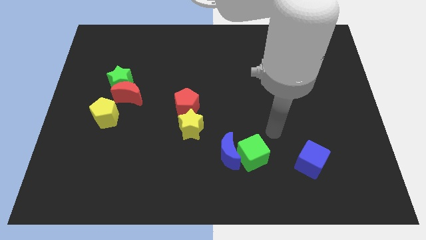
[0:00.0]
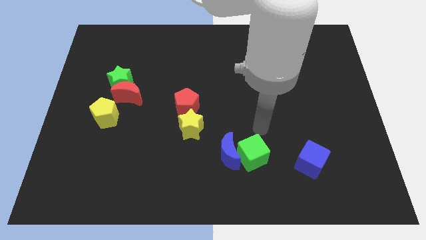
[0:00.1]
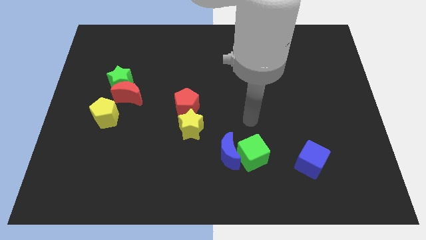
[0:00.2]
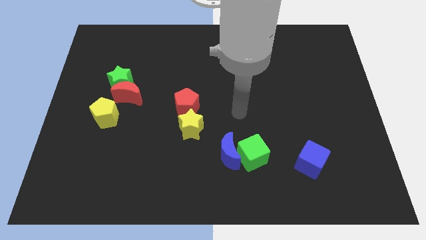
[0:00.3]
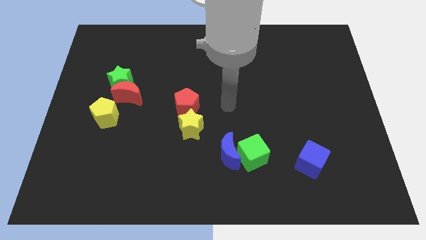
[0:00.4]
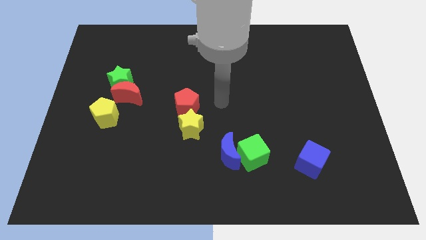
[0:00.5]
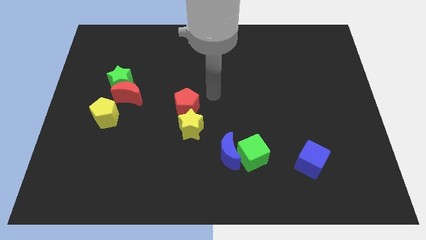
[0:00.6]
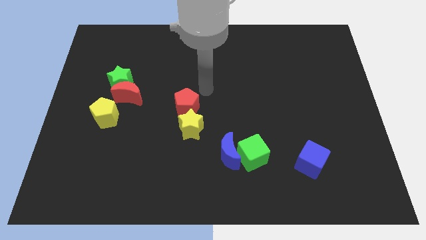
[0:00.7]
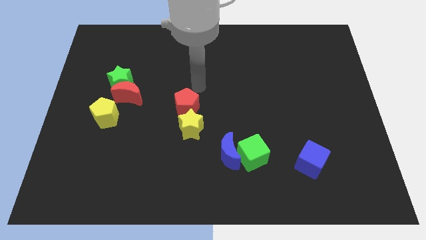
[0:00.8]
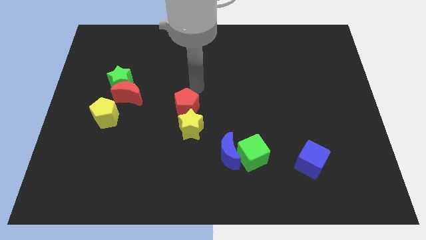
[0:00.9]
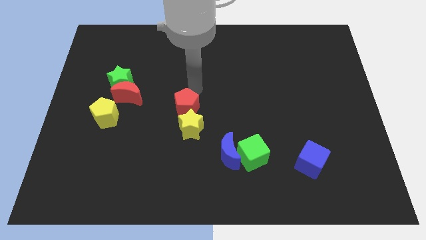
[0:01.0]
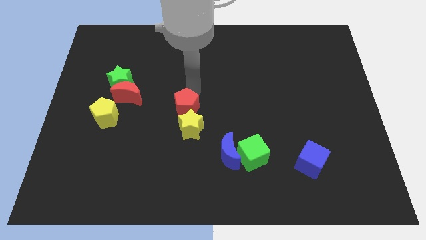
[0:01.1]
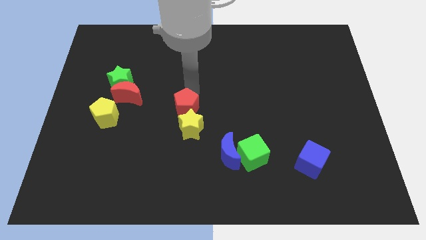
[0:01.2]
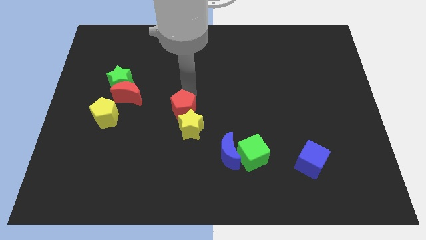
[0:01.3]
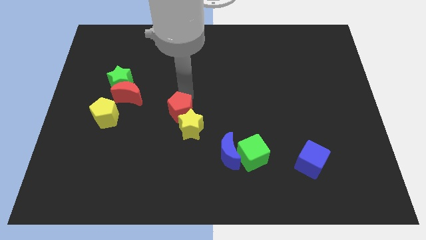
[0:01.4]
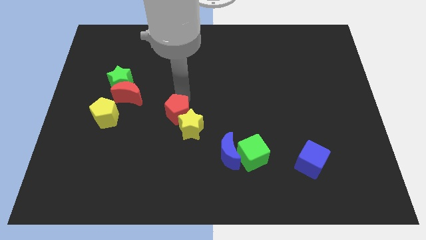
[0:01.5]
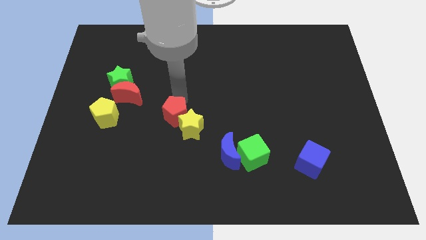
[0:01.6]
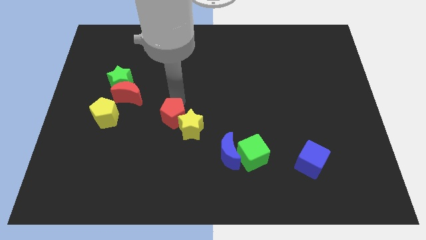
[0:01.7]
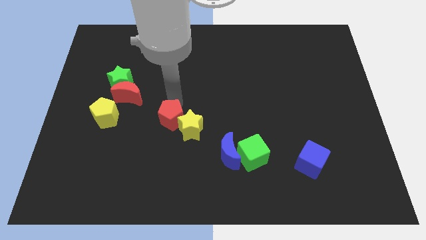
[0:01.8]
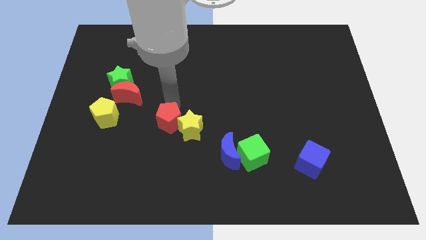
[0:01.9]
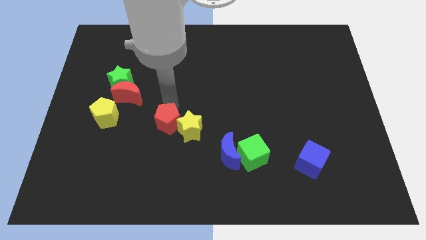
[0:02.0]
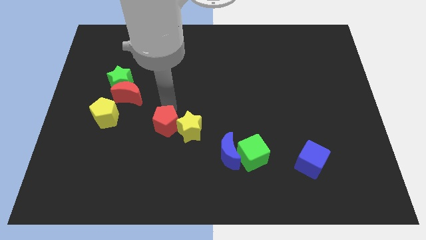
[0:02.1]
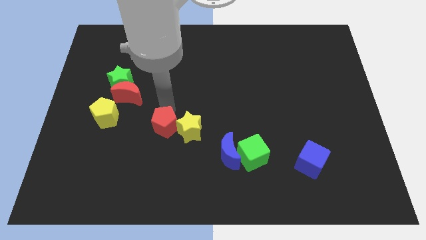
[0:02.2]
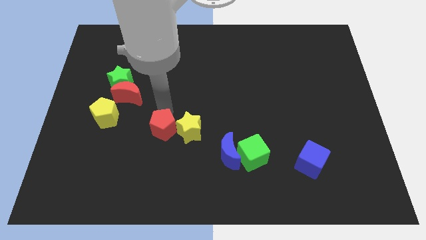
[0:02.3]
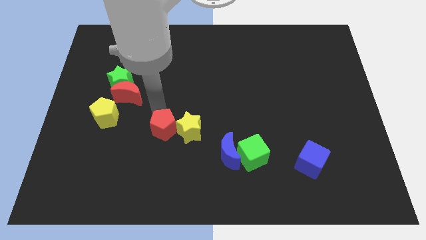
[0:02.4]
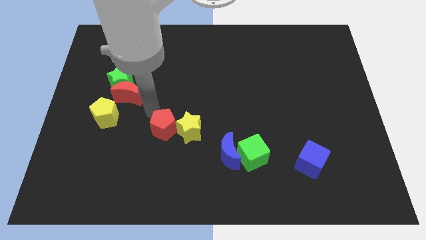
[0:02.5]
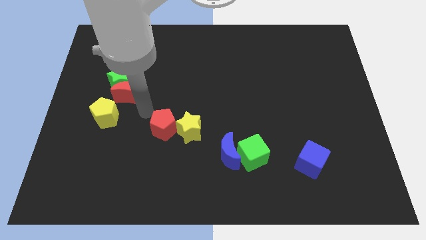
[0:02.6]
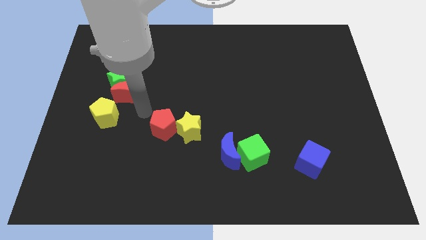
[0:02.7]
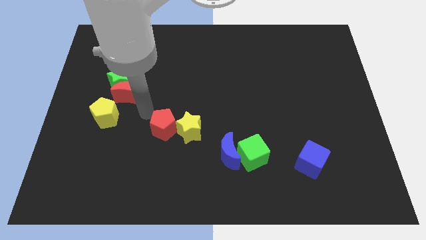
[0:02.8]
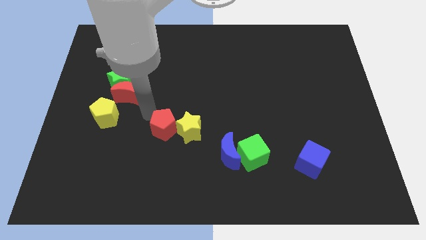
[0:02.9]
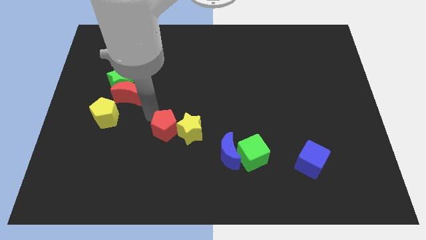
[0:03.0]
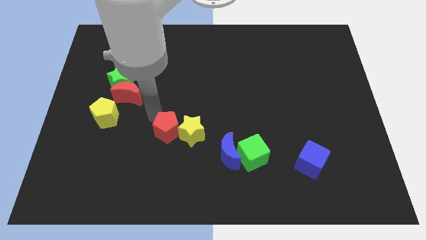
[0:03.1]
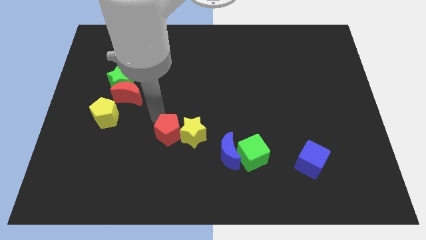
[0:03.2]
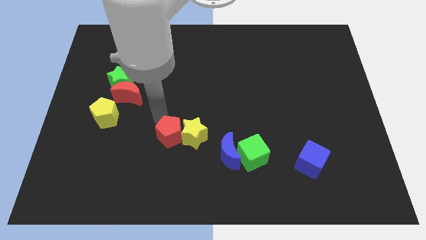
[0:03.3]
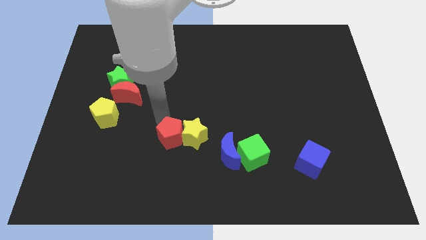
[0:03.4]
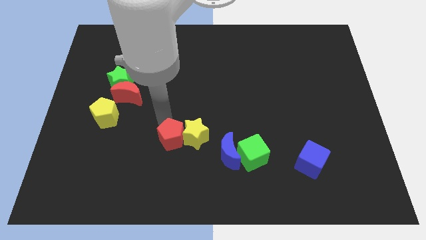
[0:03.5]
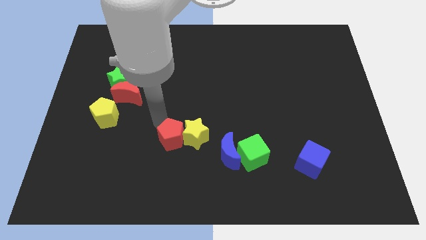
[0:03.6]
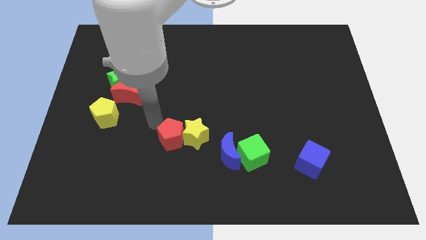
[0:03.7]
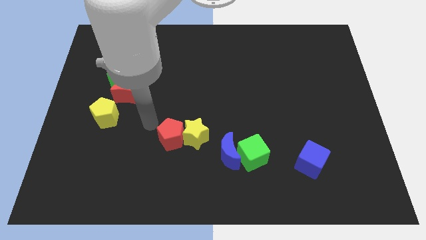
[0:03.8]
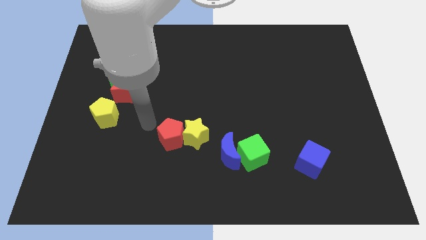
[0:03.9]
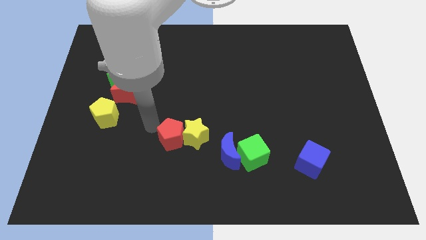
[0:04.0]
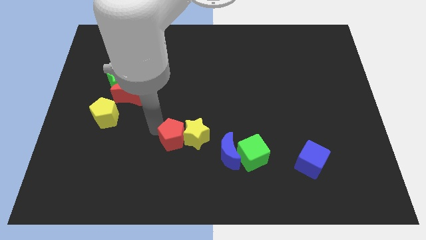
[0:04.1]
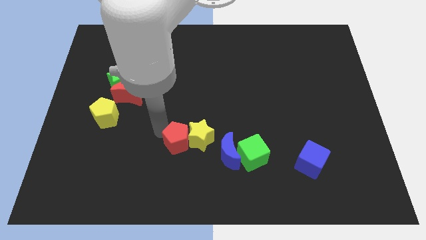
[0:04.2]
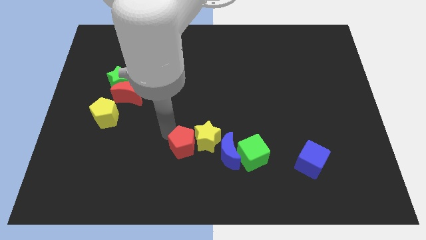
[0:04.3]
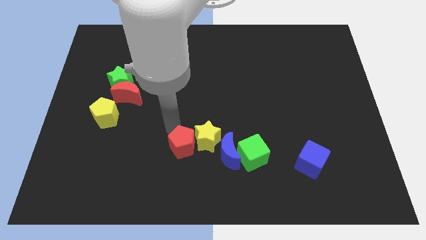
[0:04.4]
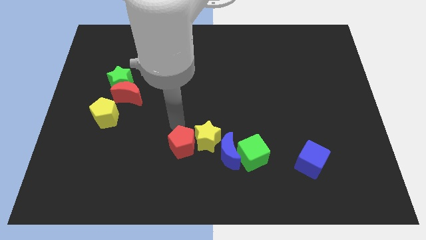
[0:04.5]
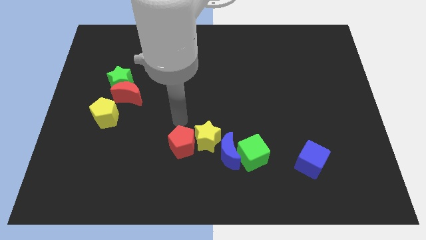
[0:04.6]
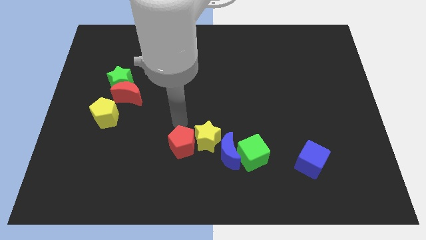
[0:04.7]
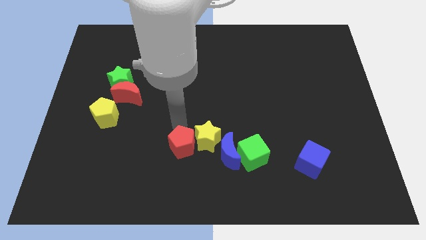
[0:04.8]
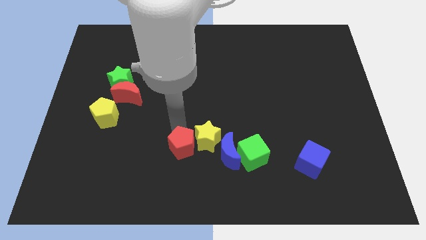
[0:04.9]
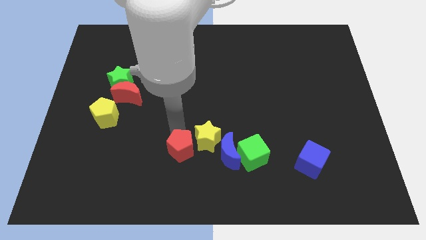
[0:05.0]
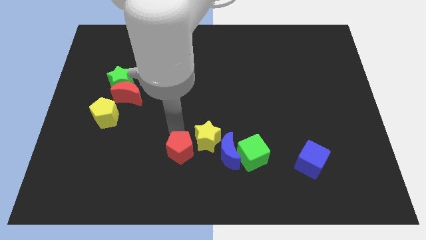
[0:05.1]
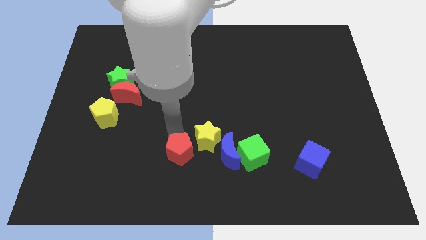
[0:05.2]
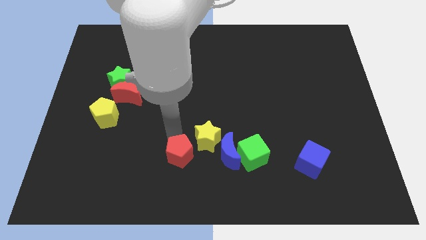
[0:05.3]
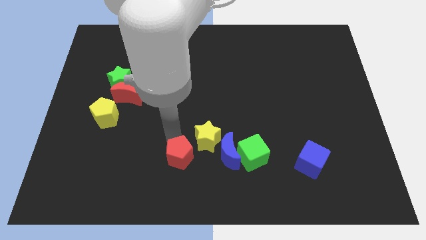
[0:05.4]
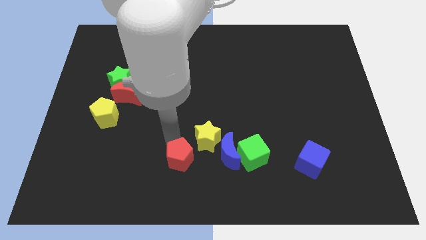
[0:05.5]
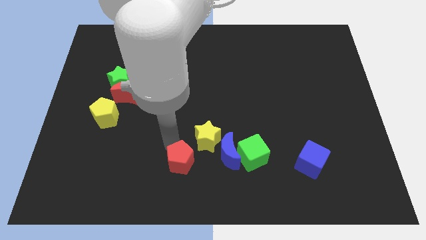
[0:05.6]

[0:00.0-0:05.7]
move the red pentagon to the bottom side

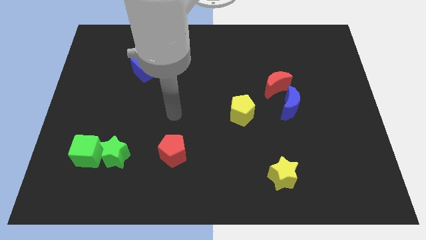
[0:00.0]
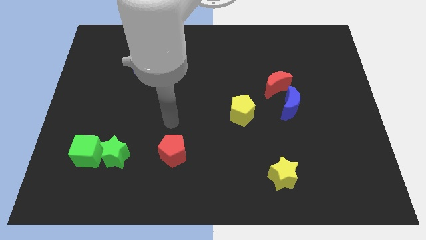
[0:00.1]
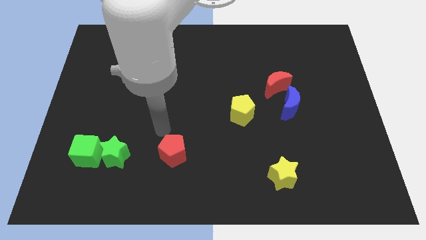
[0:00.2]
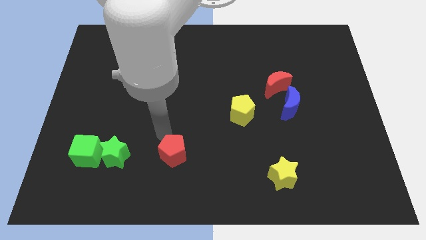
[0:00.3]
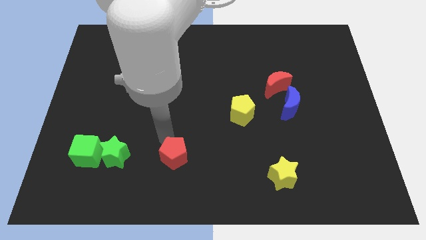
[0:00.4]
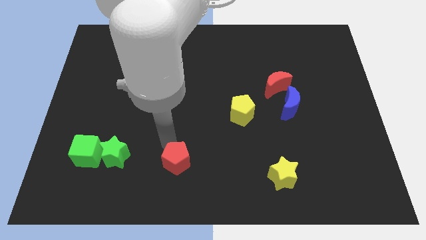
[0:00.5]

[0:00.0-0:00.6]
put the red pentagon to the bottom side
